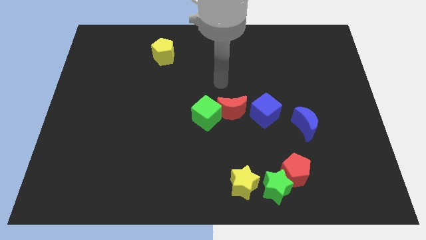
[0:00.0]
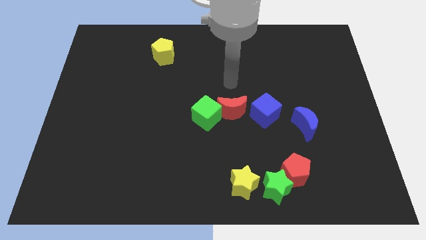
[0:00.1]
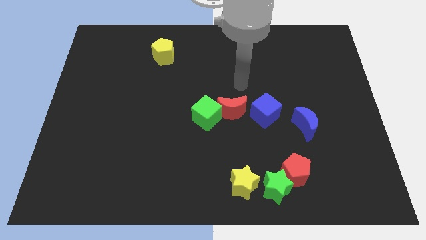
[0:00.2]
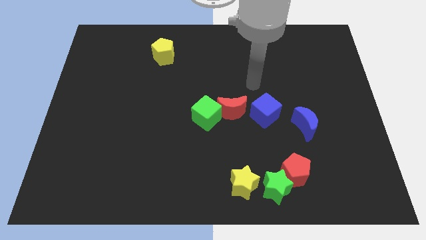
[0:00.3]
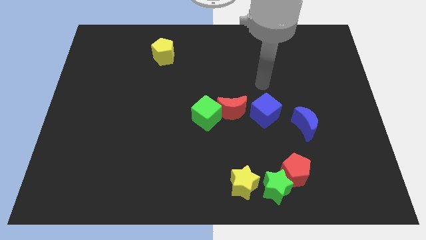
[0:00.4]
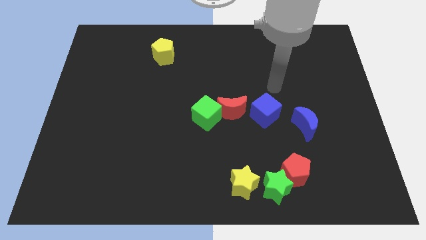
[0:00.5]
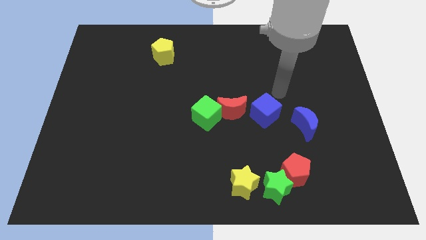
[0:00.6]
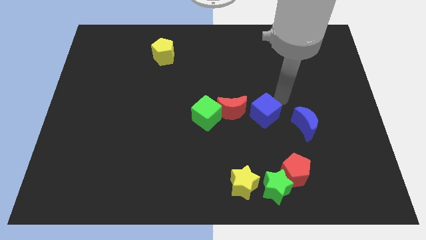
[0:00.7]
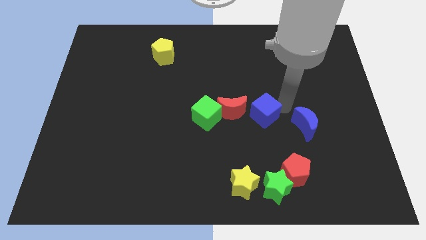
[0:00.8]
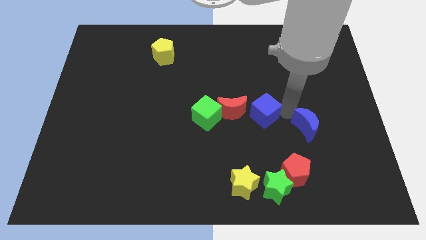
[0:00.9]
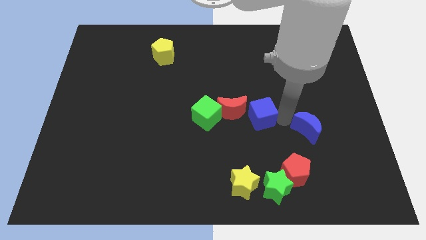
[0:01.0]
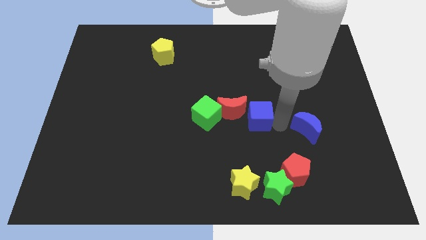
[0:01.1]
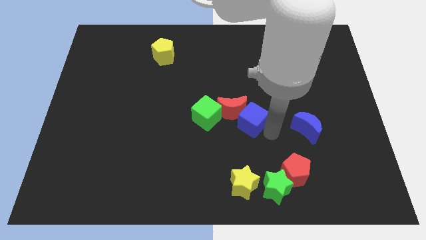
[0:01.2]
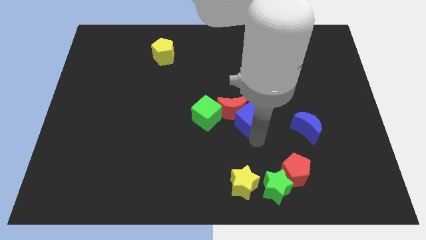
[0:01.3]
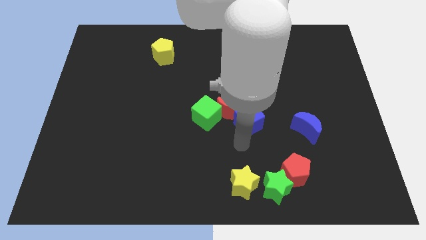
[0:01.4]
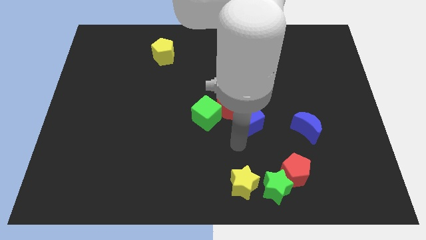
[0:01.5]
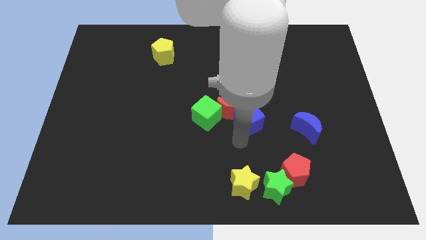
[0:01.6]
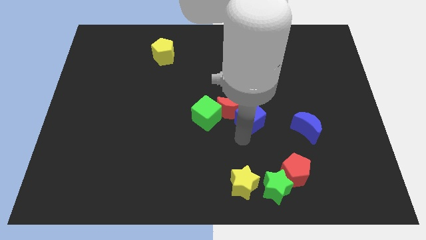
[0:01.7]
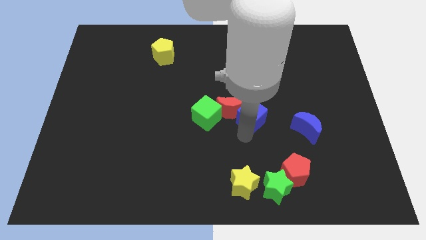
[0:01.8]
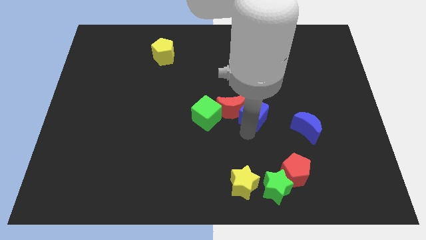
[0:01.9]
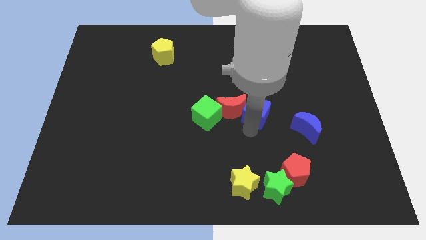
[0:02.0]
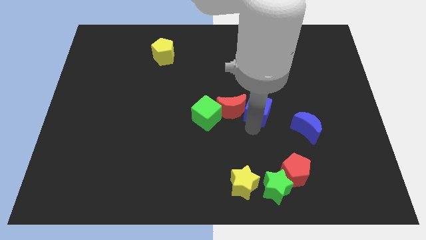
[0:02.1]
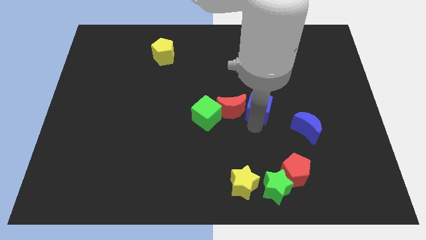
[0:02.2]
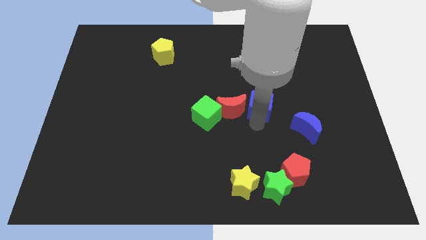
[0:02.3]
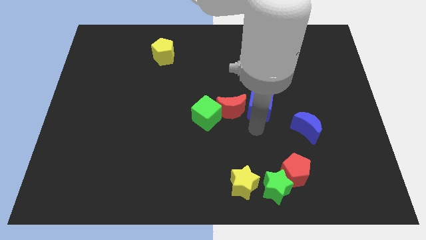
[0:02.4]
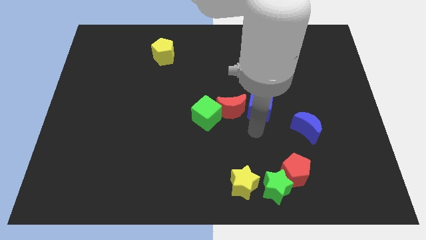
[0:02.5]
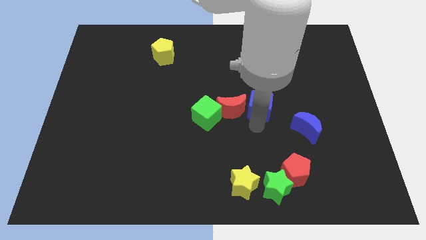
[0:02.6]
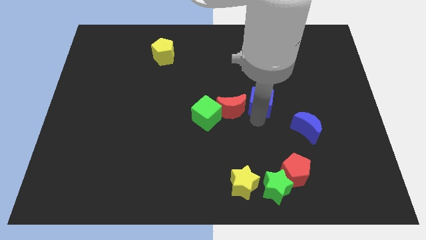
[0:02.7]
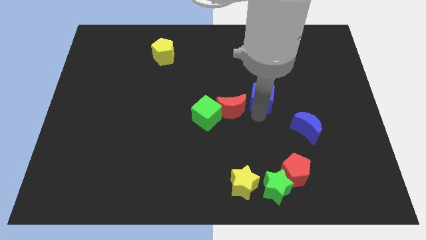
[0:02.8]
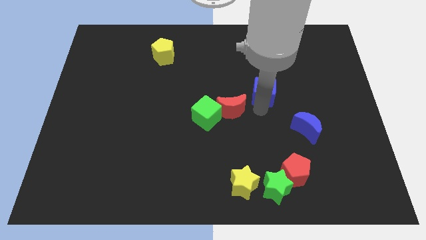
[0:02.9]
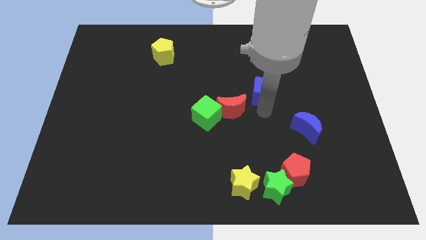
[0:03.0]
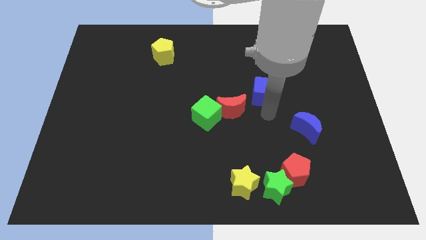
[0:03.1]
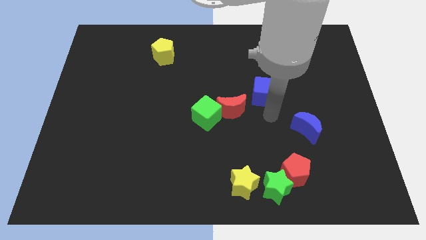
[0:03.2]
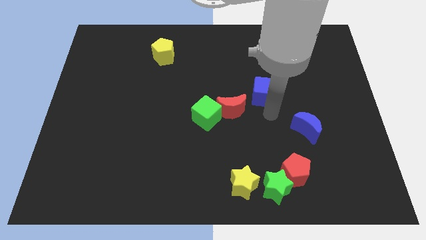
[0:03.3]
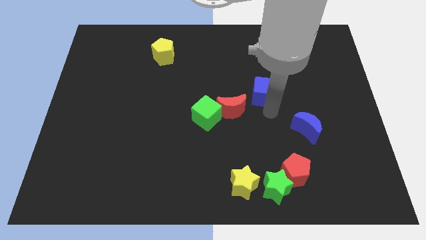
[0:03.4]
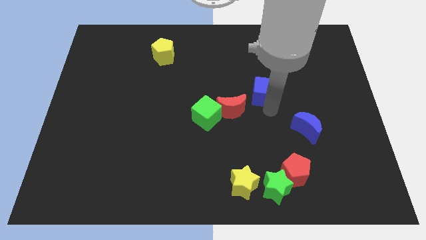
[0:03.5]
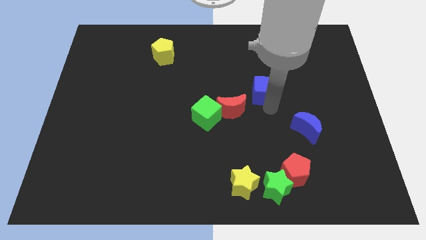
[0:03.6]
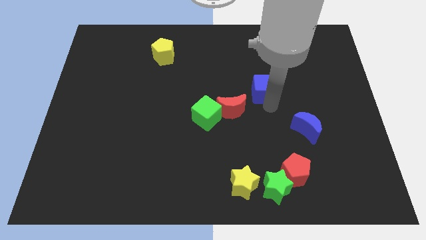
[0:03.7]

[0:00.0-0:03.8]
move the blue cube up a bit

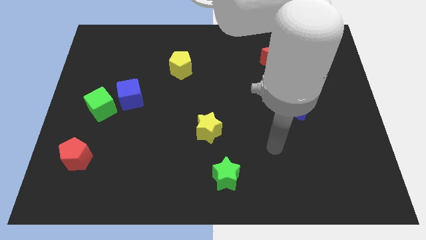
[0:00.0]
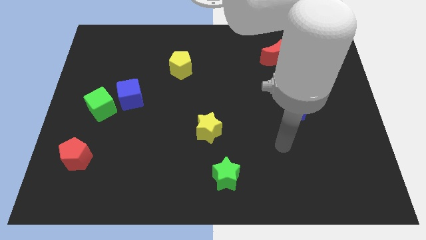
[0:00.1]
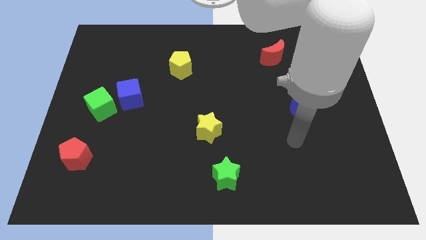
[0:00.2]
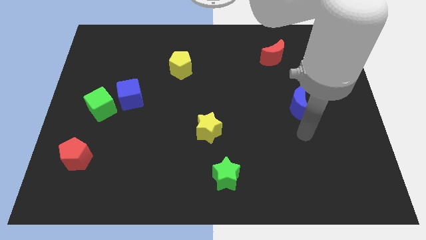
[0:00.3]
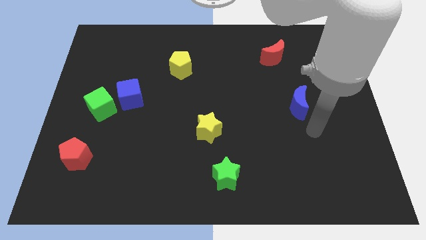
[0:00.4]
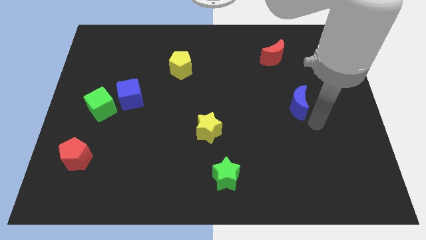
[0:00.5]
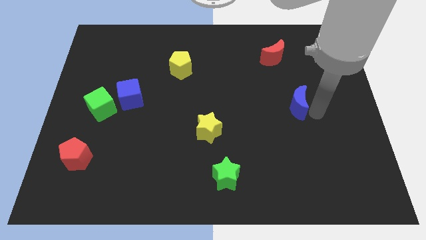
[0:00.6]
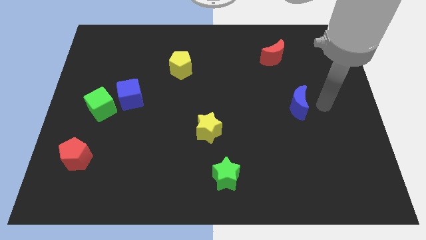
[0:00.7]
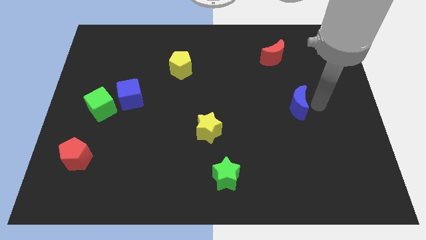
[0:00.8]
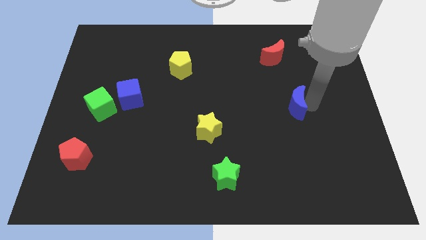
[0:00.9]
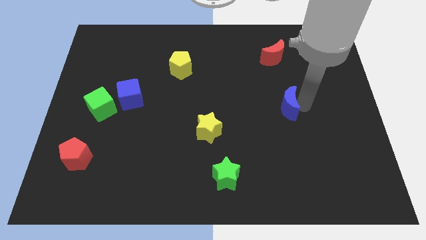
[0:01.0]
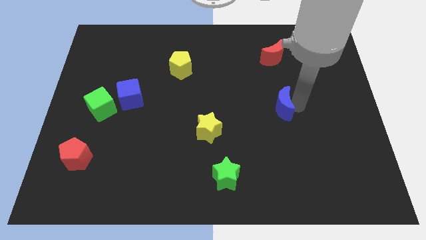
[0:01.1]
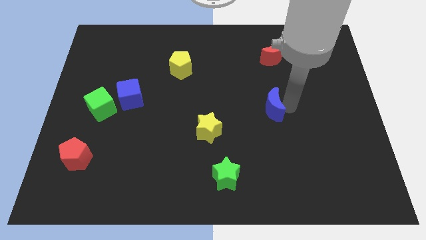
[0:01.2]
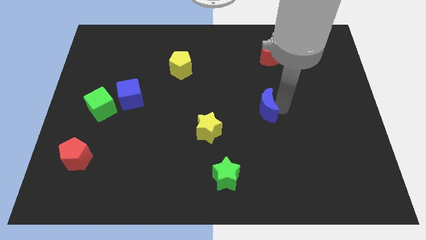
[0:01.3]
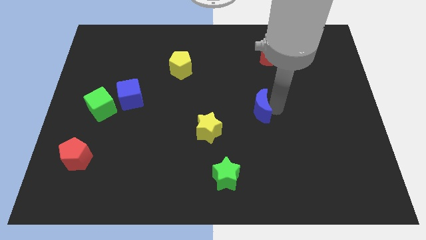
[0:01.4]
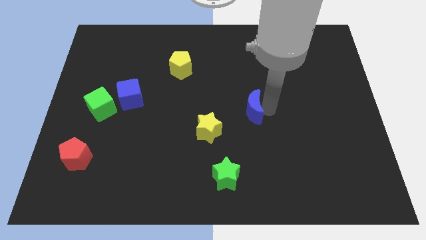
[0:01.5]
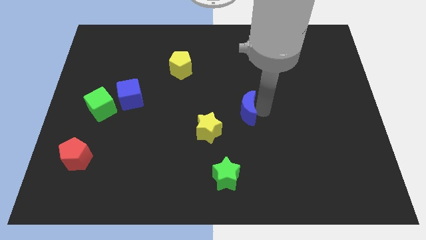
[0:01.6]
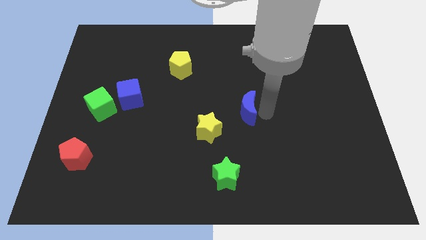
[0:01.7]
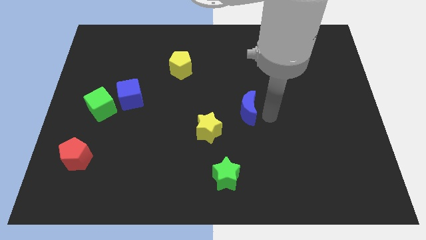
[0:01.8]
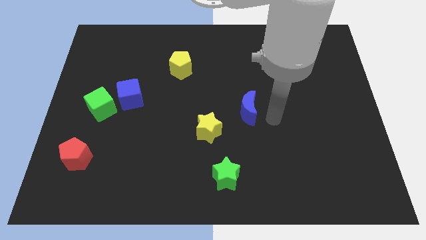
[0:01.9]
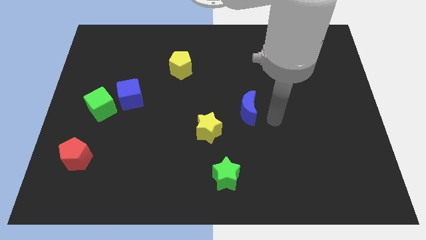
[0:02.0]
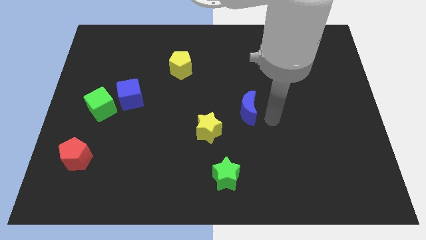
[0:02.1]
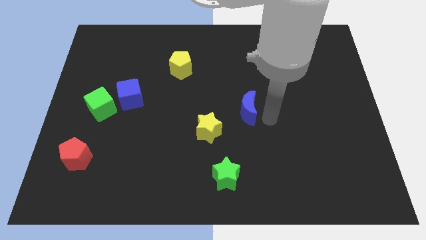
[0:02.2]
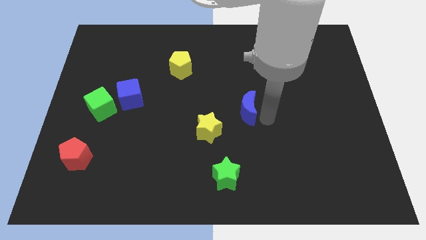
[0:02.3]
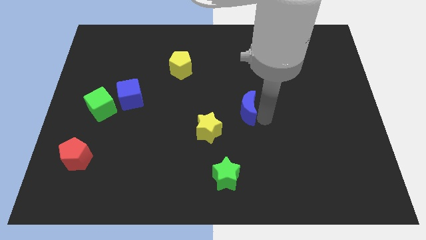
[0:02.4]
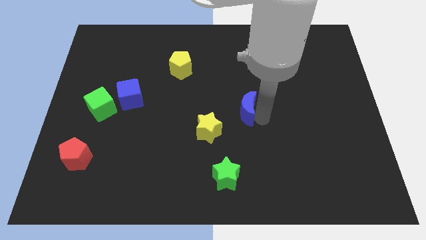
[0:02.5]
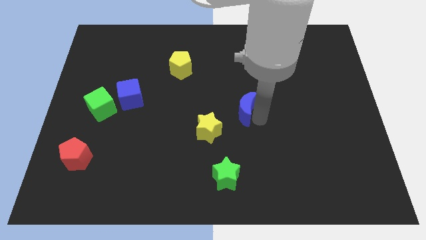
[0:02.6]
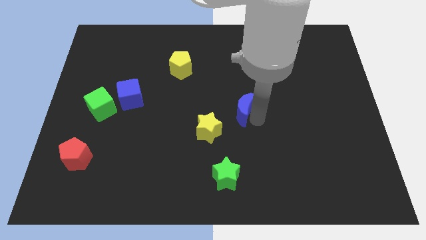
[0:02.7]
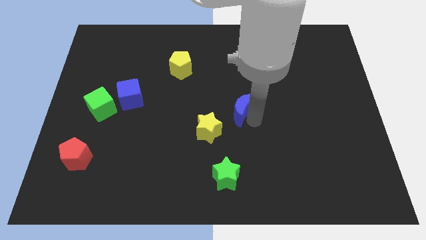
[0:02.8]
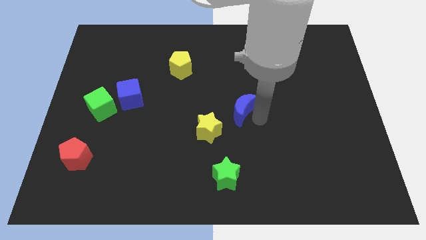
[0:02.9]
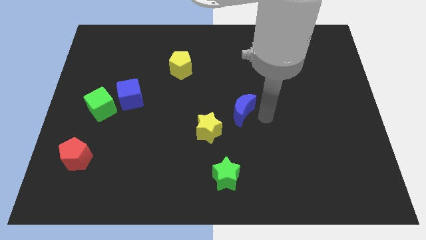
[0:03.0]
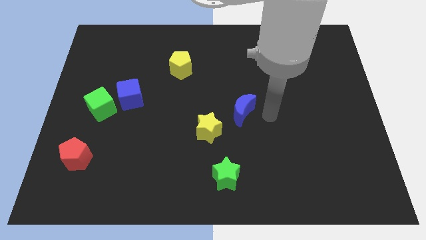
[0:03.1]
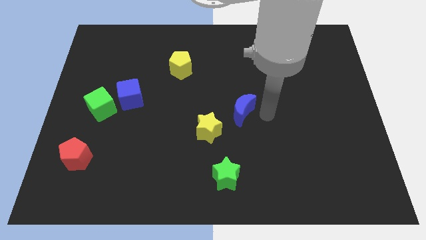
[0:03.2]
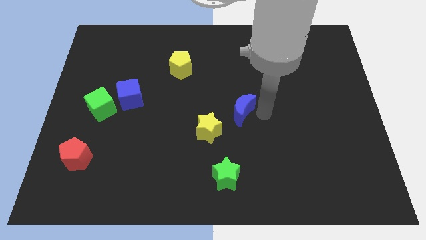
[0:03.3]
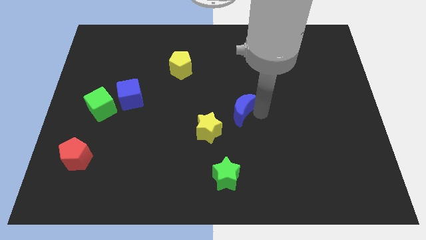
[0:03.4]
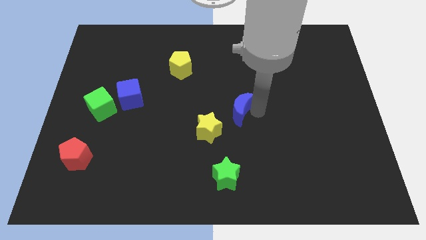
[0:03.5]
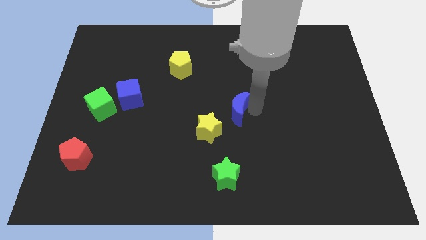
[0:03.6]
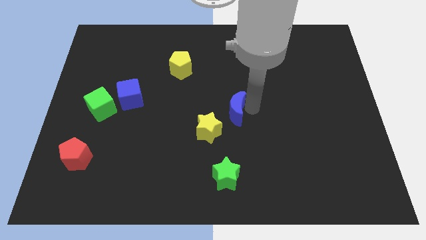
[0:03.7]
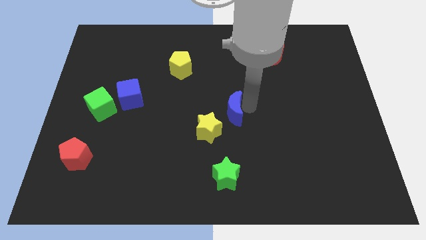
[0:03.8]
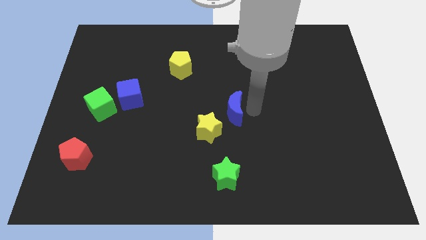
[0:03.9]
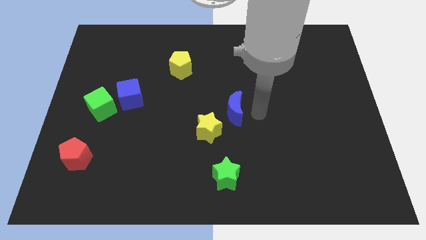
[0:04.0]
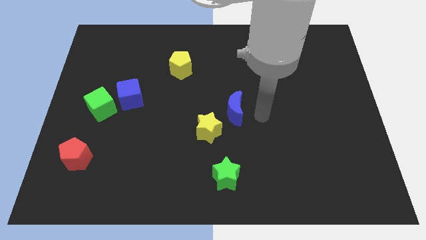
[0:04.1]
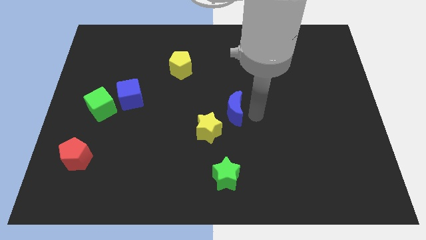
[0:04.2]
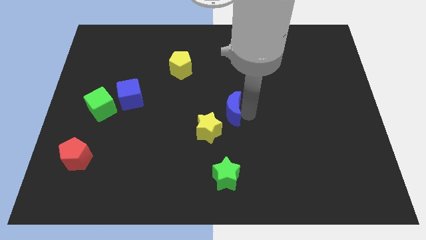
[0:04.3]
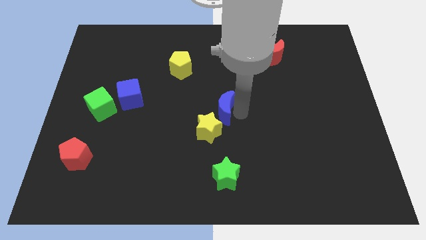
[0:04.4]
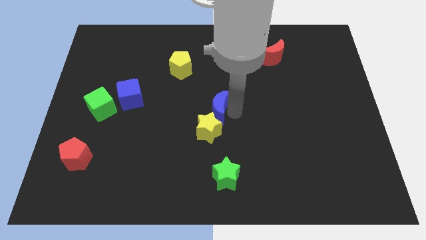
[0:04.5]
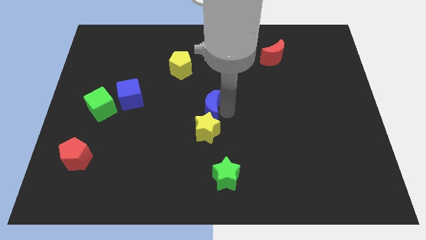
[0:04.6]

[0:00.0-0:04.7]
move the blue moon left
